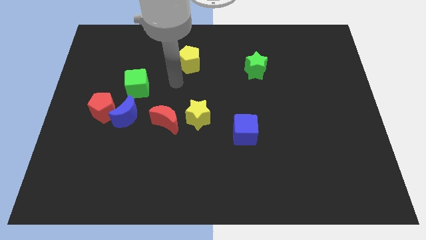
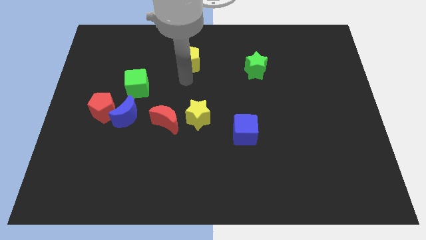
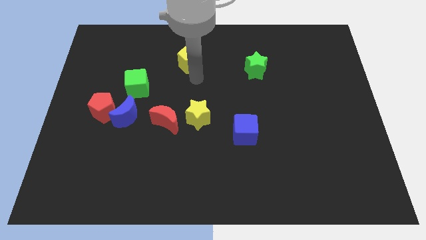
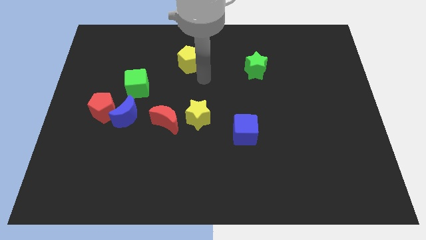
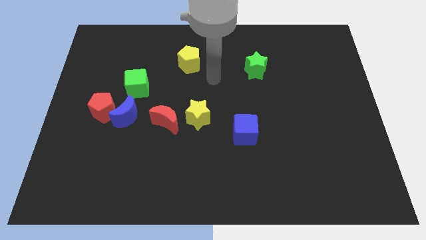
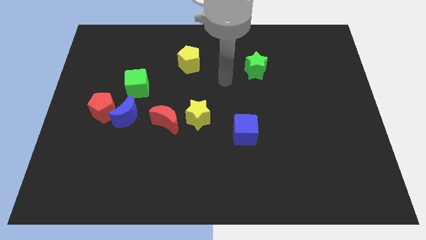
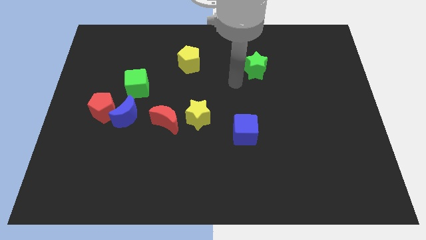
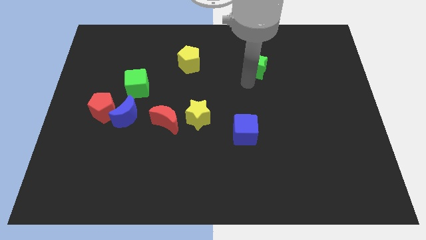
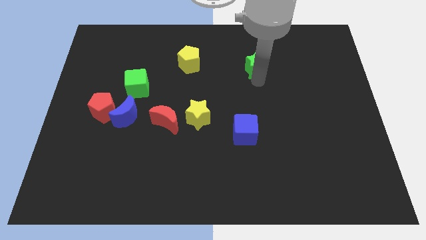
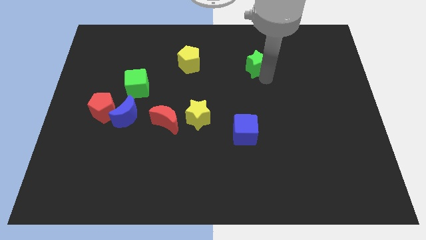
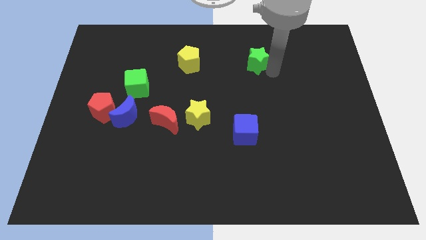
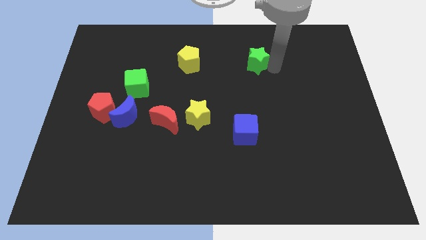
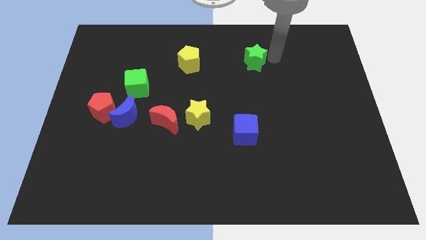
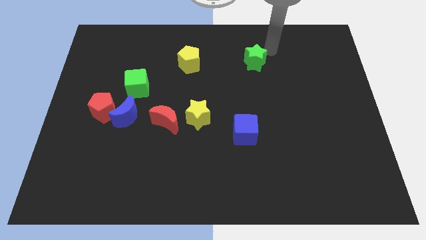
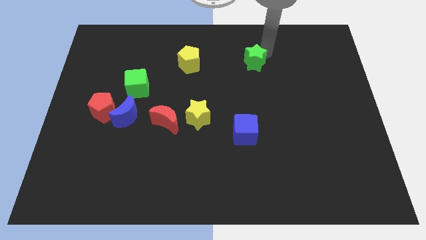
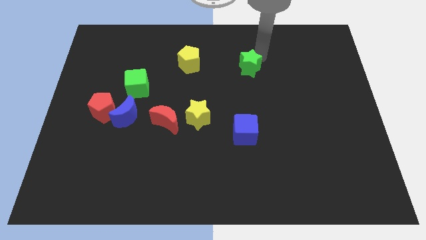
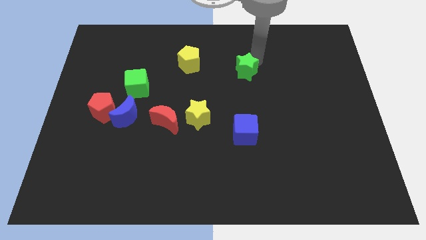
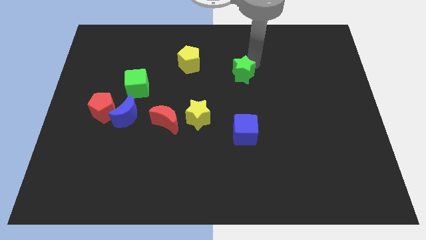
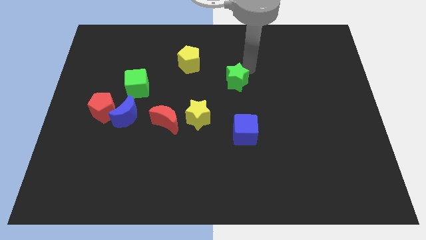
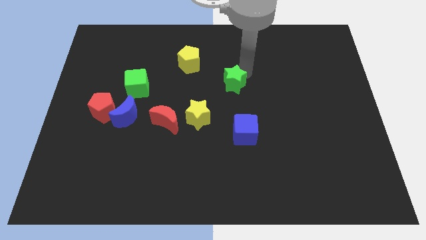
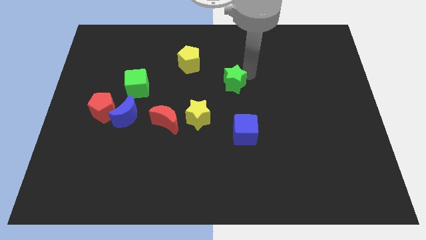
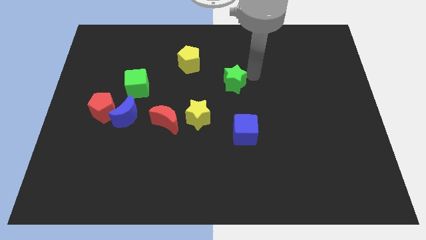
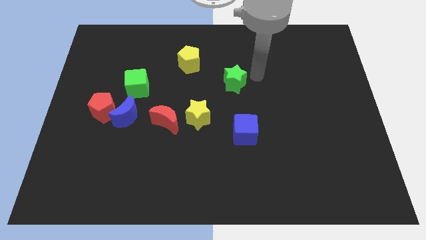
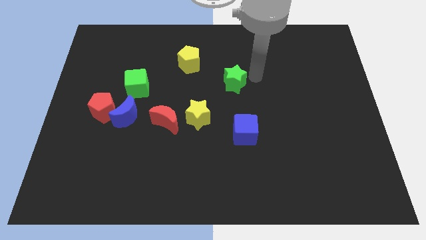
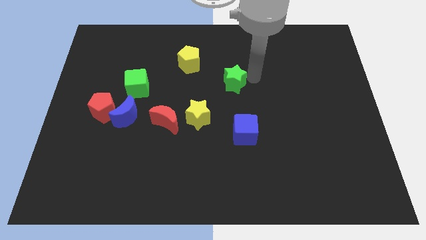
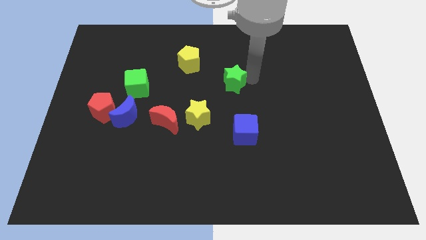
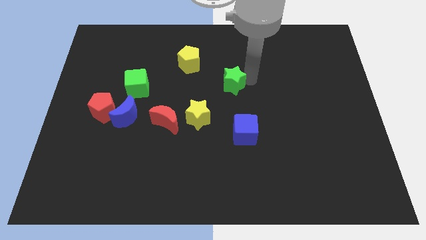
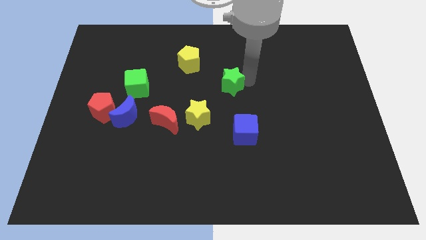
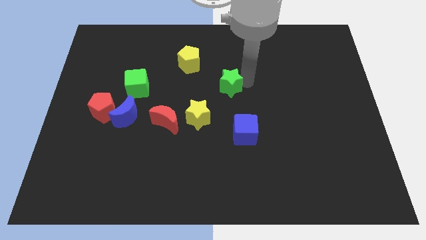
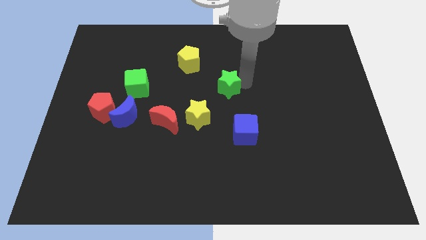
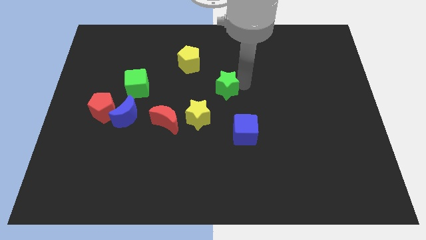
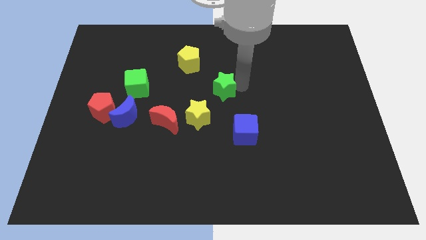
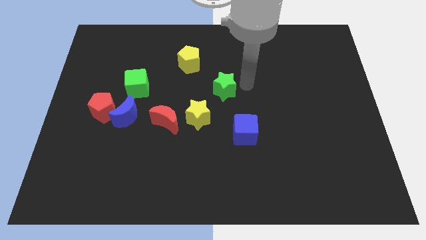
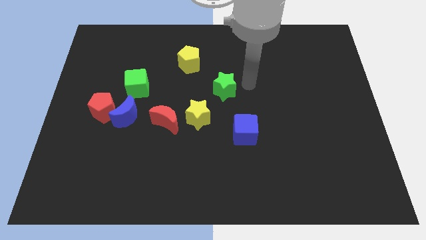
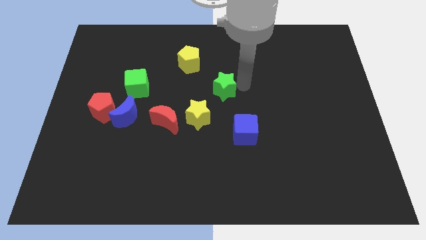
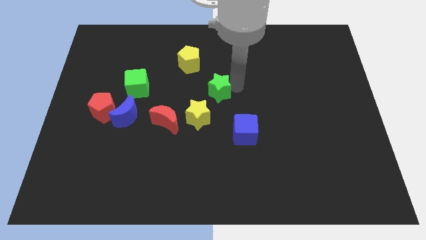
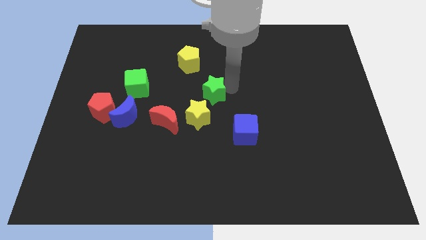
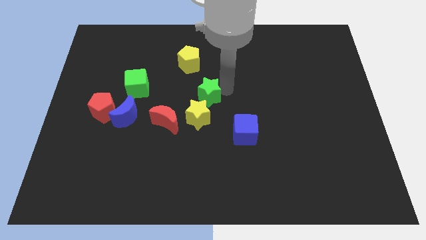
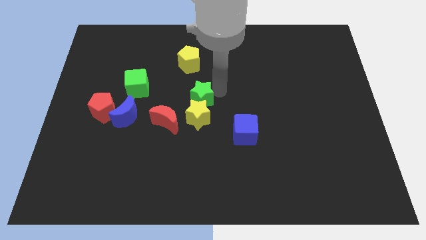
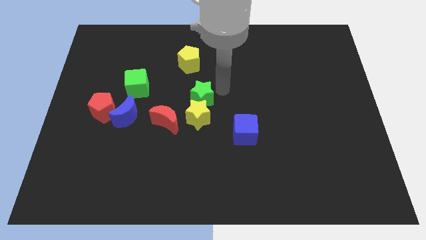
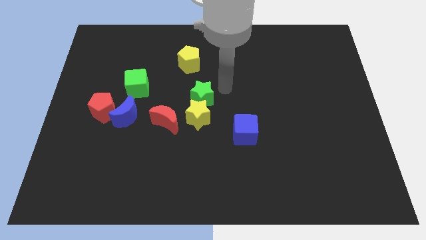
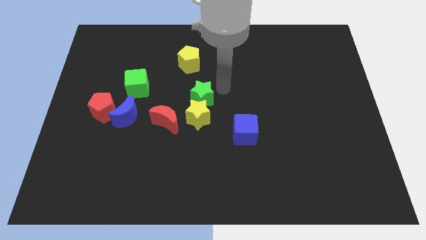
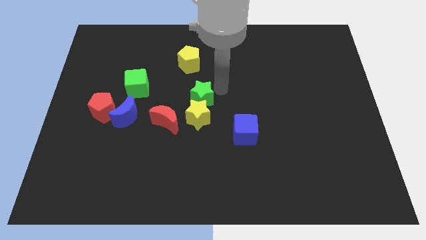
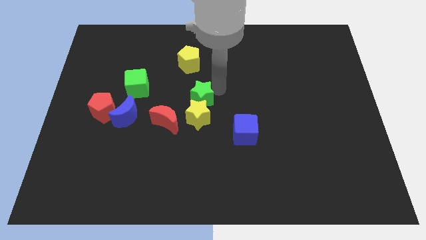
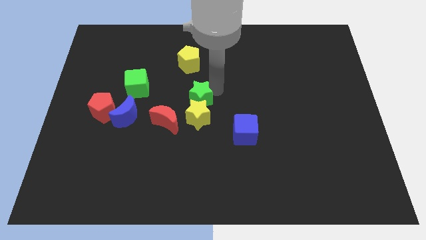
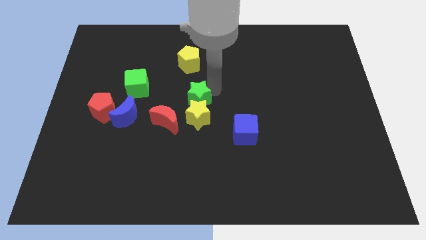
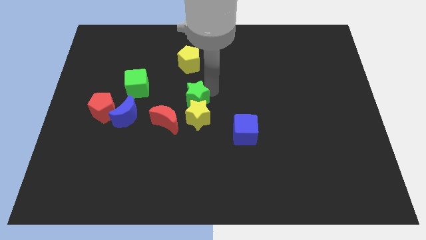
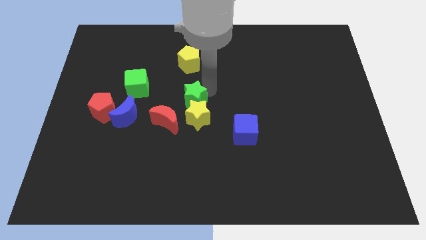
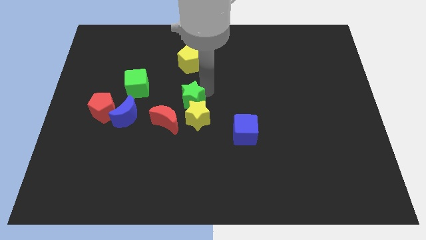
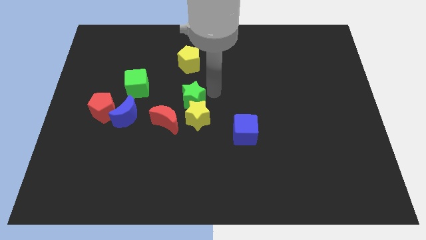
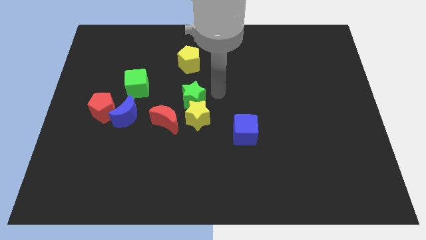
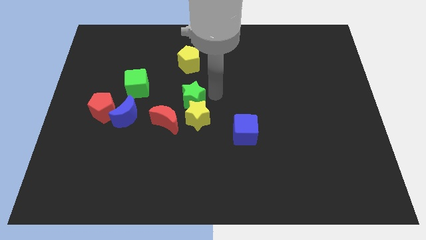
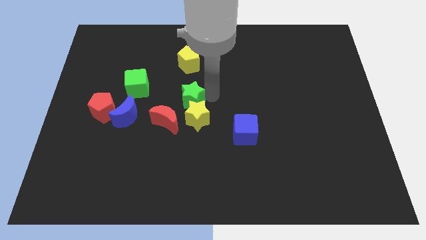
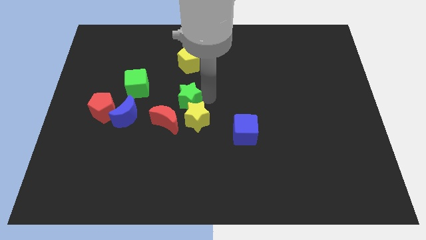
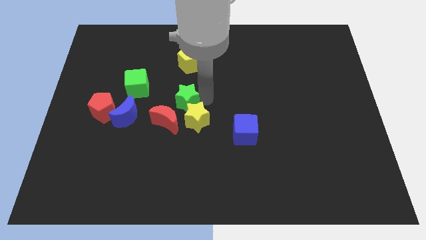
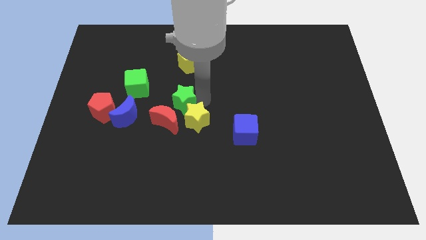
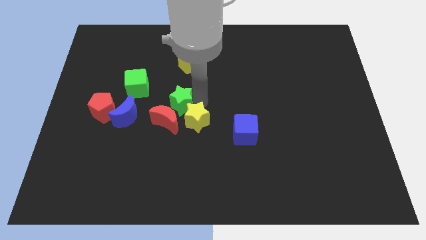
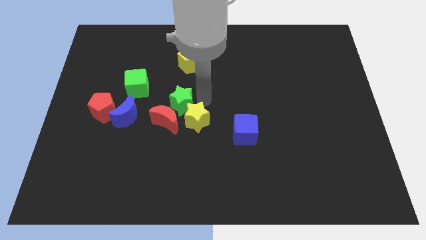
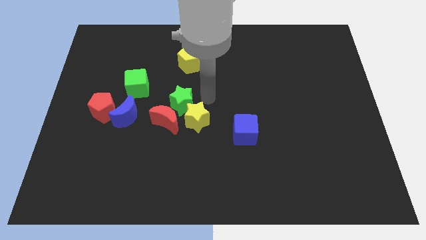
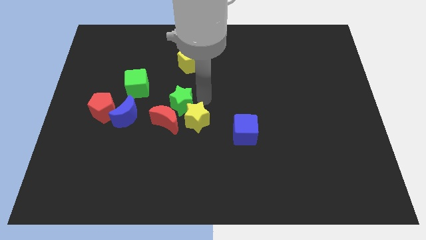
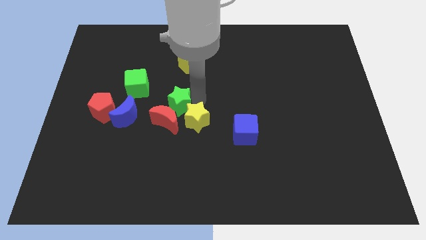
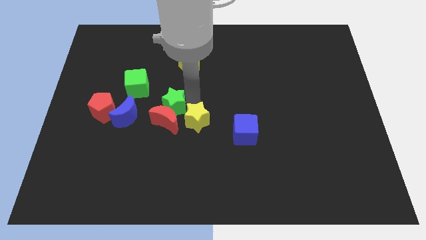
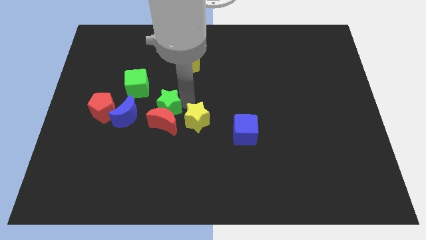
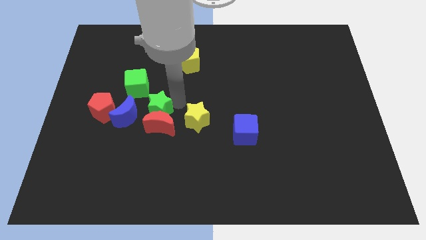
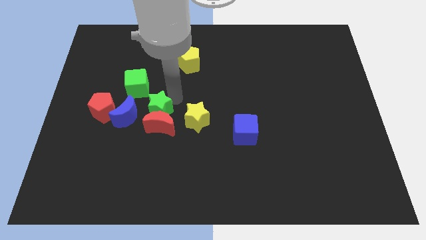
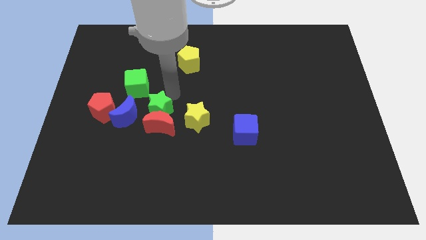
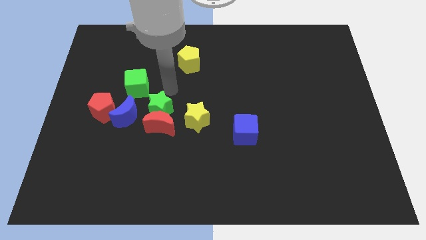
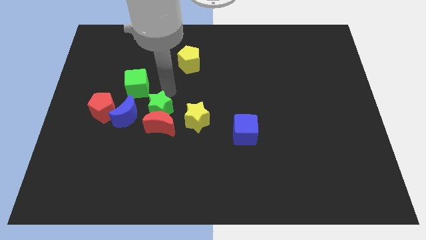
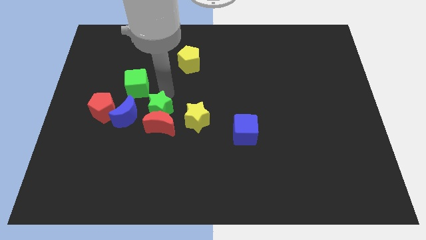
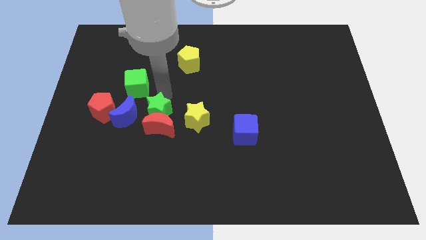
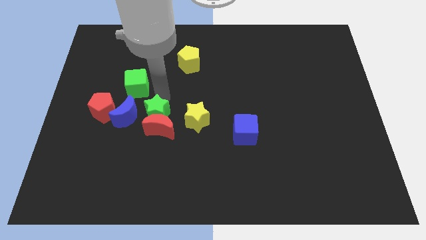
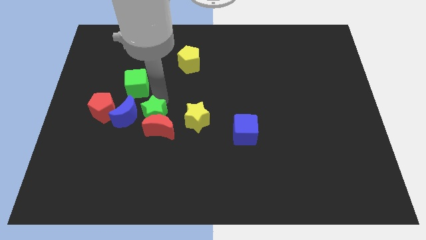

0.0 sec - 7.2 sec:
put the green star to the bottom right side of the blue moon
